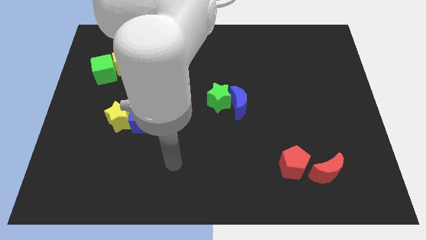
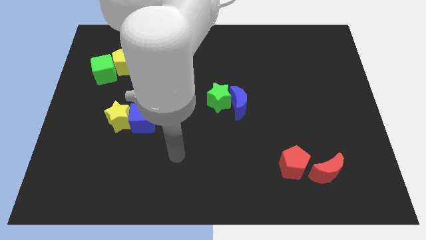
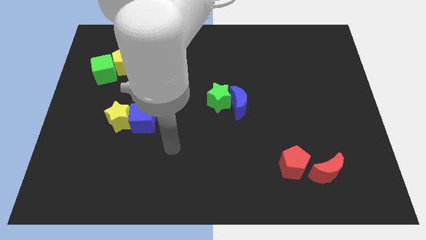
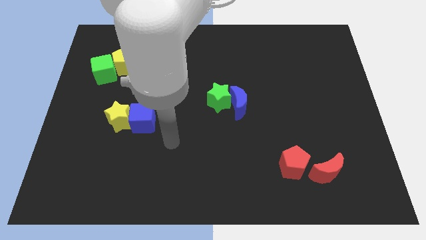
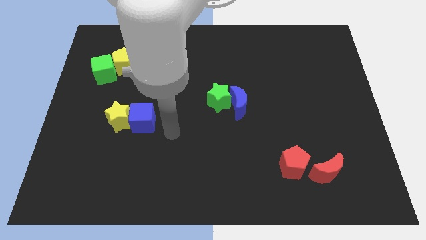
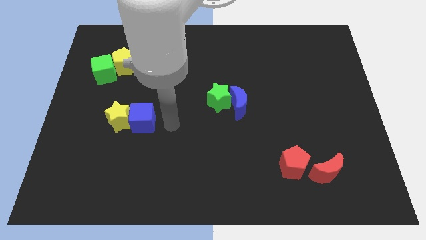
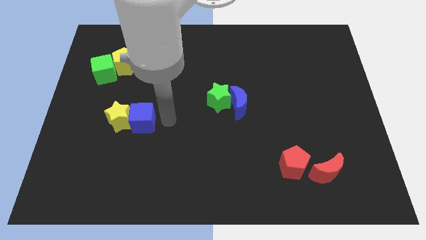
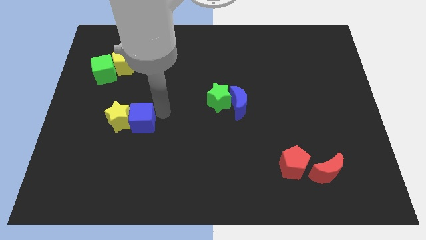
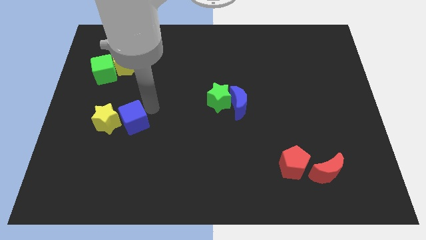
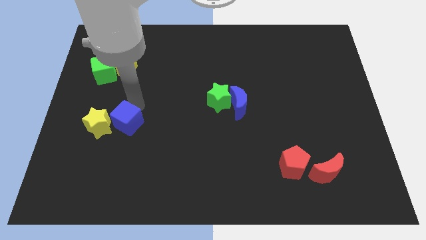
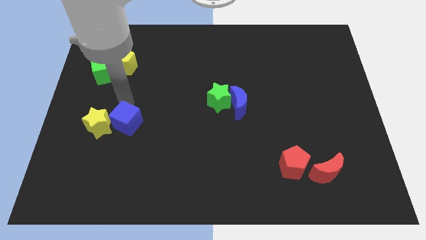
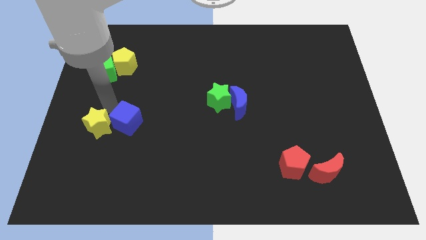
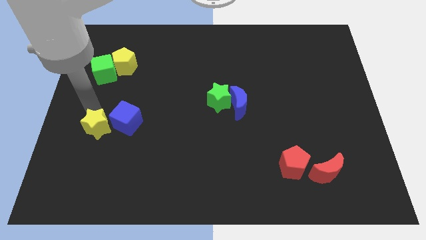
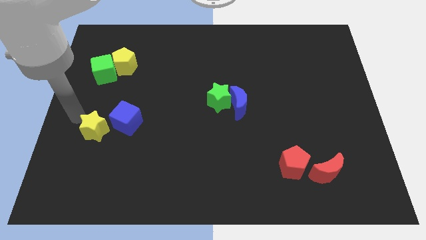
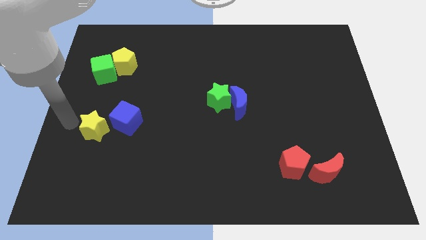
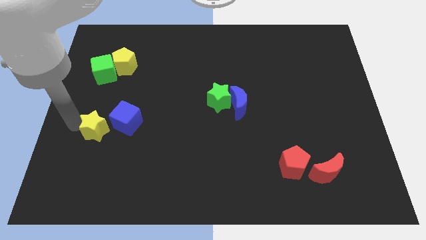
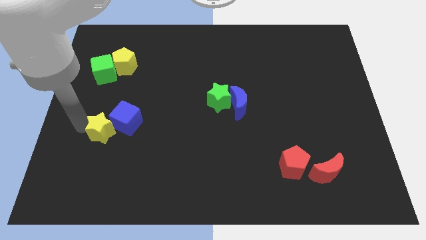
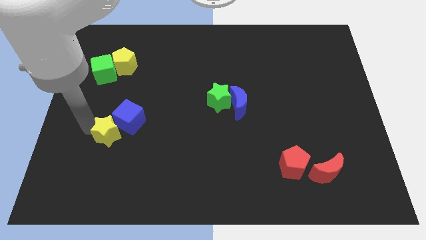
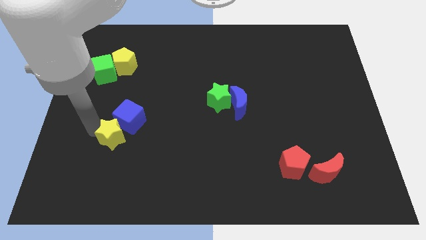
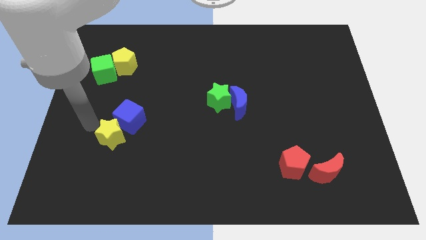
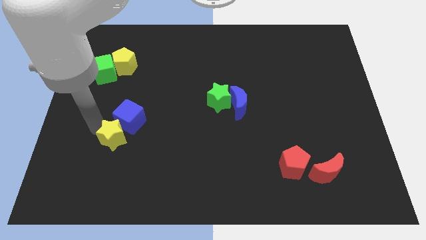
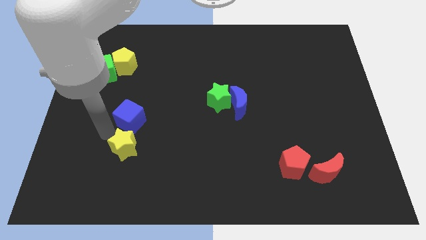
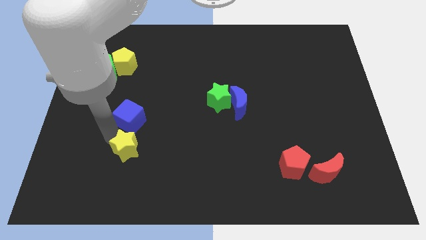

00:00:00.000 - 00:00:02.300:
move the yellow star a little down and to the right

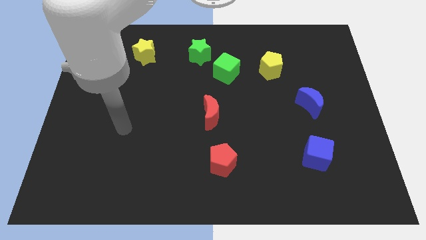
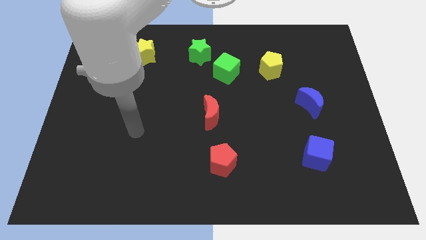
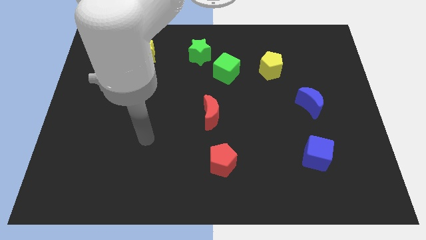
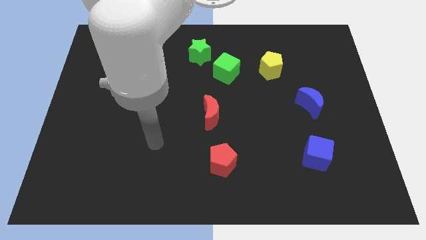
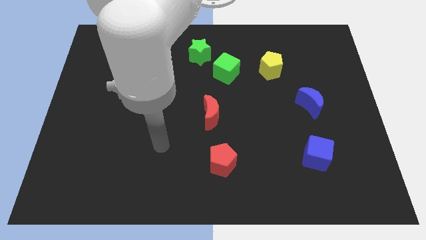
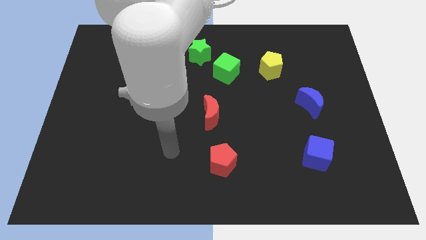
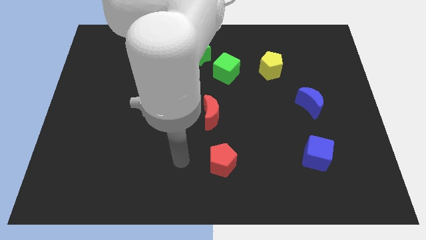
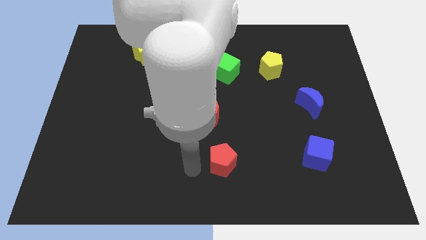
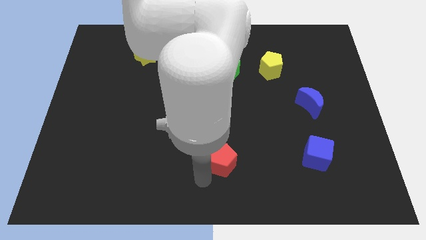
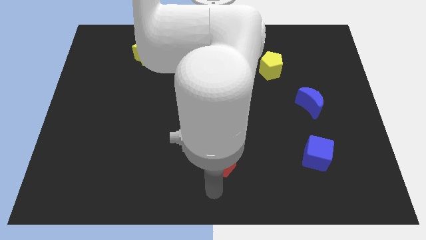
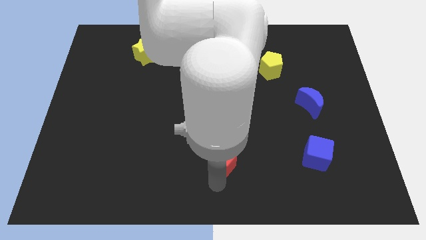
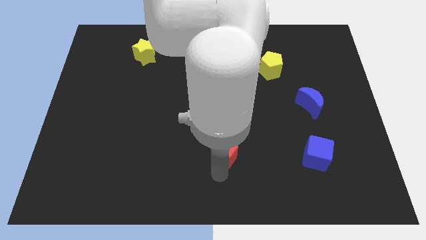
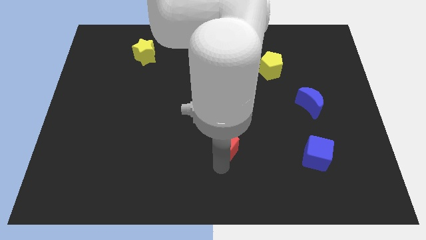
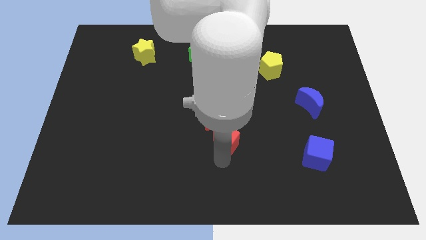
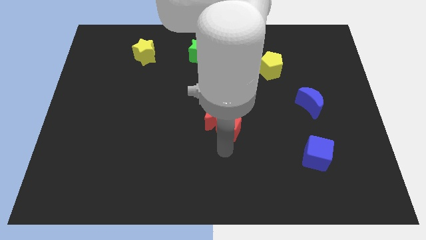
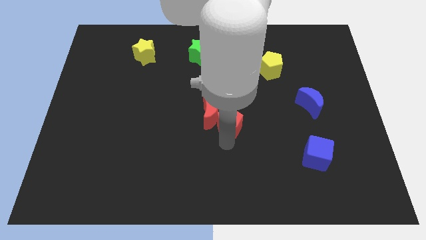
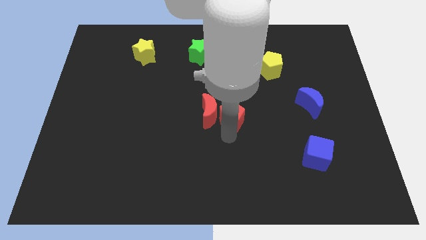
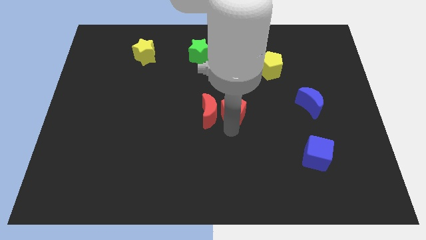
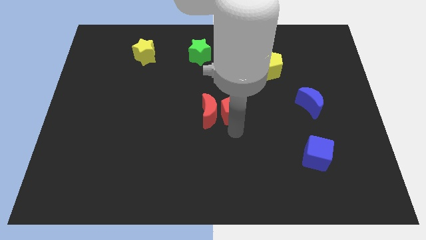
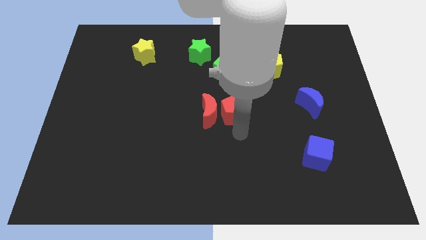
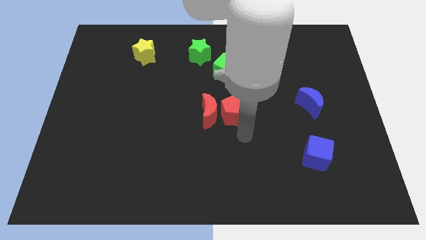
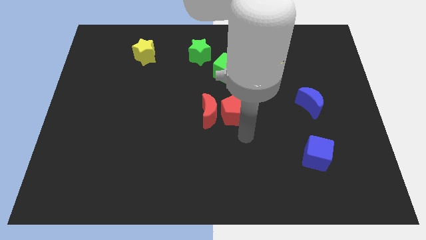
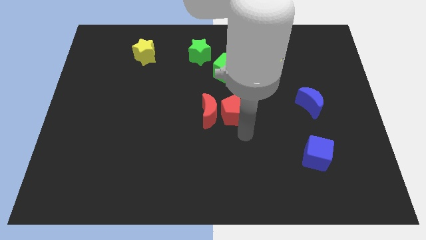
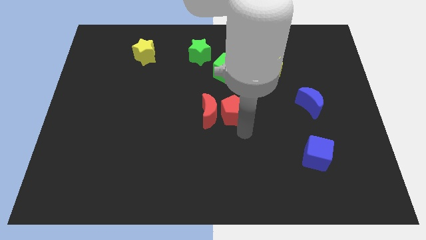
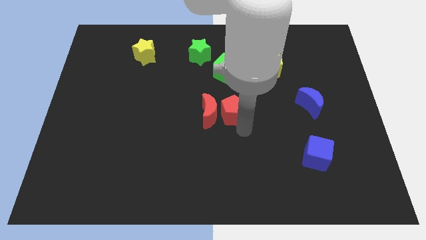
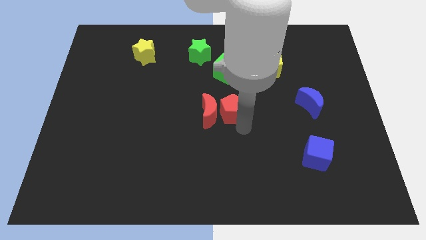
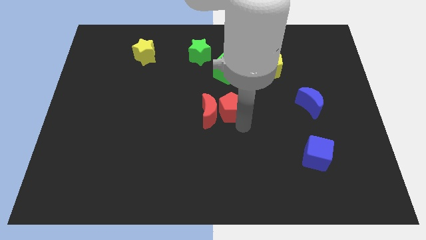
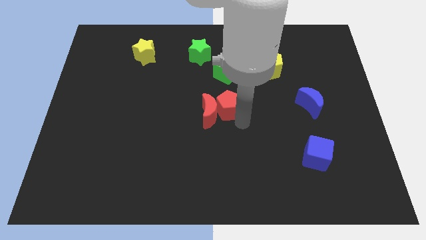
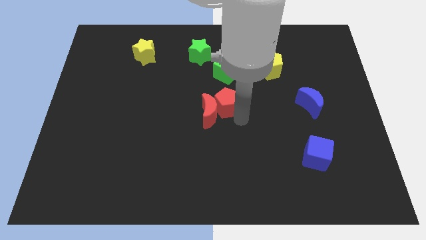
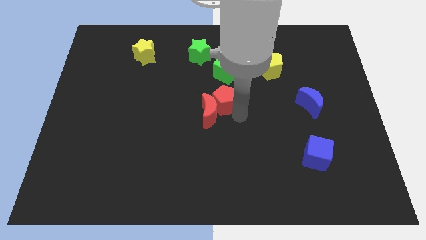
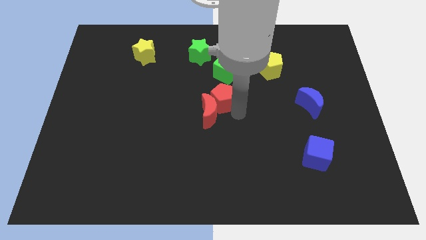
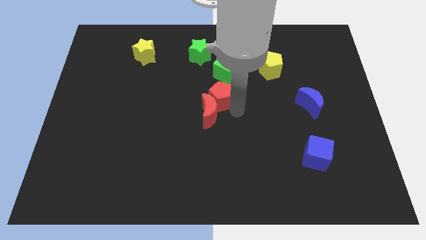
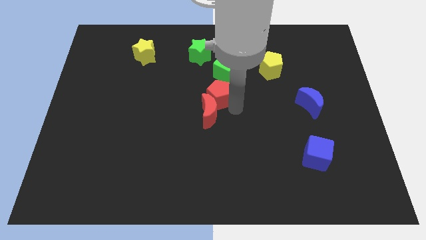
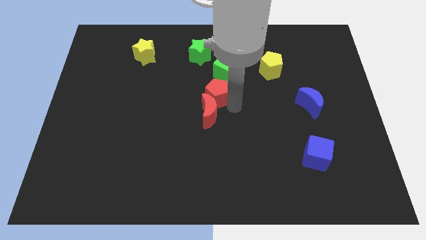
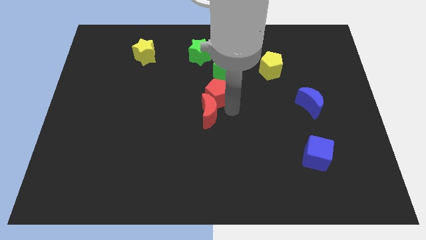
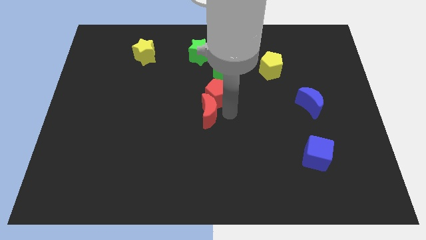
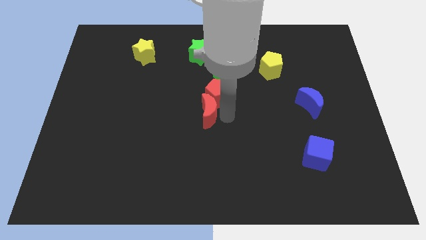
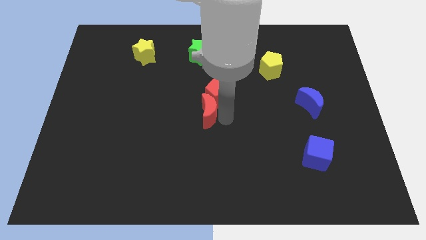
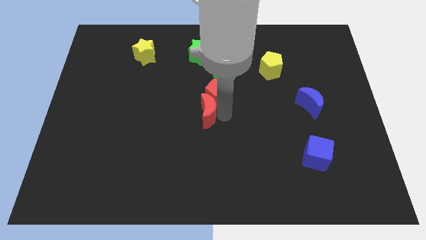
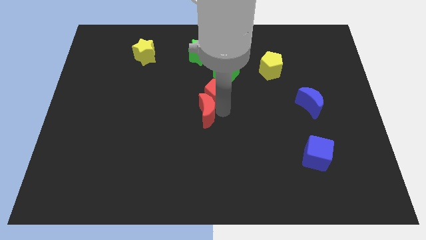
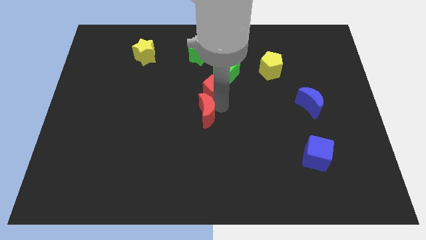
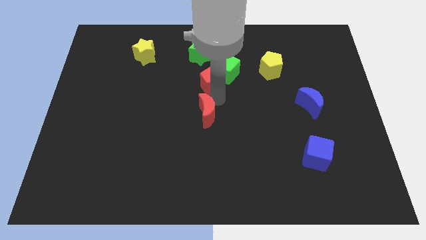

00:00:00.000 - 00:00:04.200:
slide the red pentagon upwards

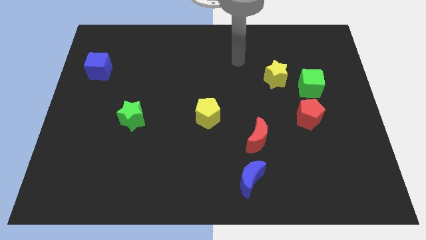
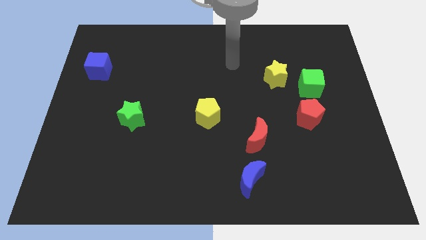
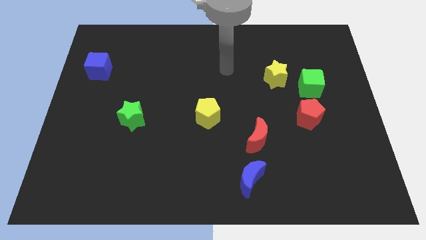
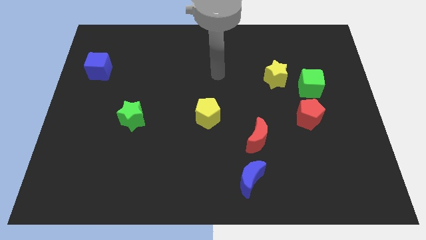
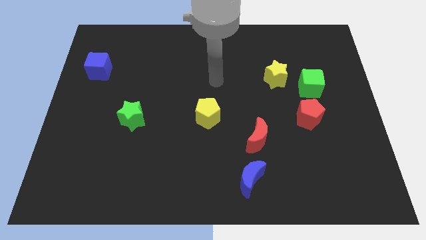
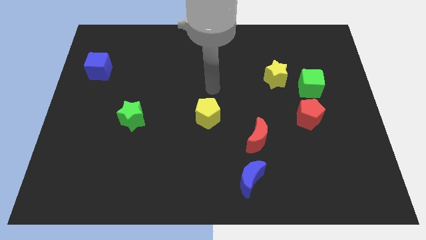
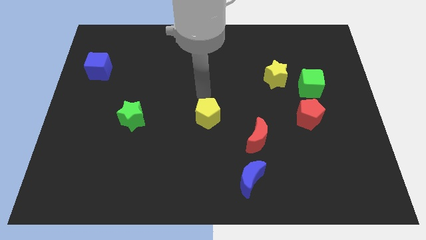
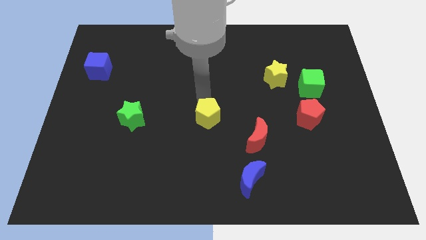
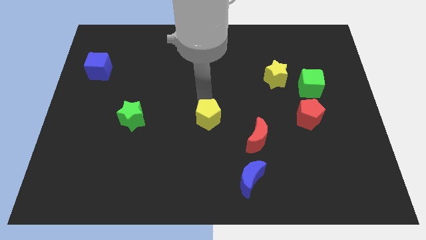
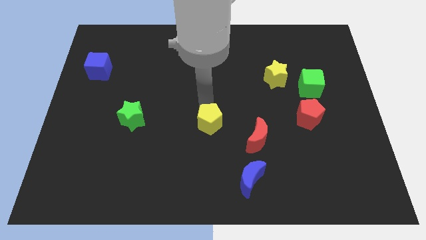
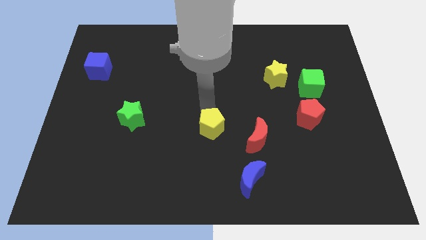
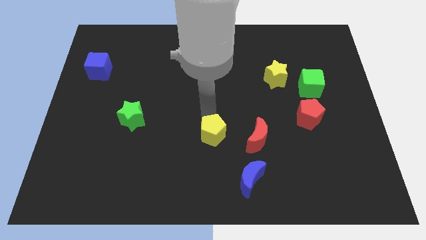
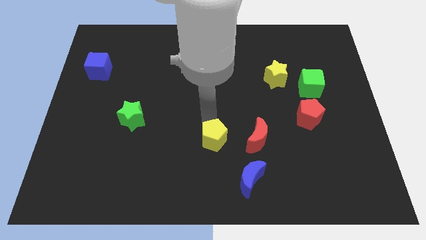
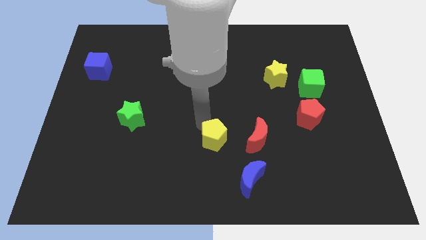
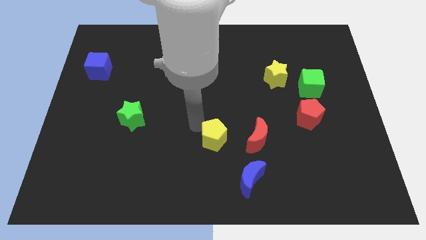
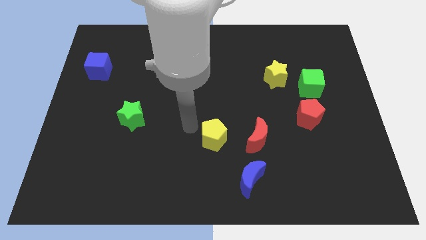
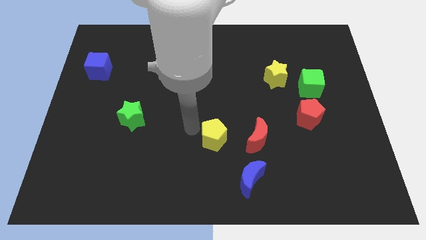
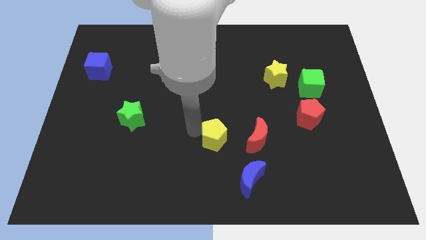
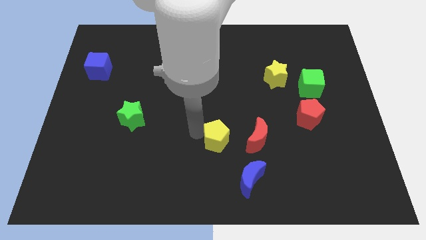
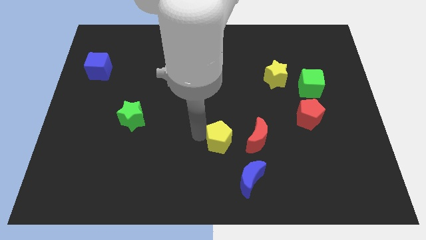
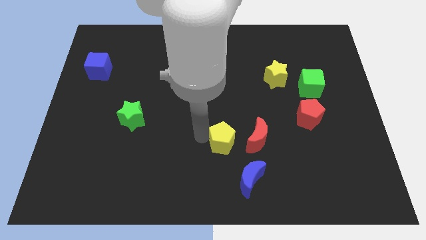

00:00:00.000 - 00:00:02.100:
push the yellow pentagon a little bit downwards and then to the right
